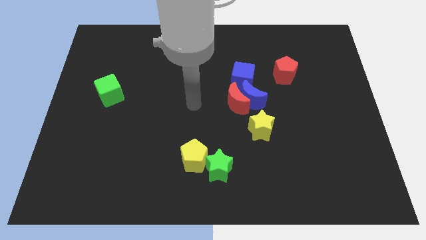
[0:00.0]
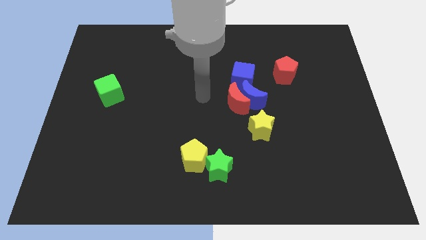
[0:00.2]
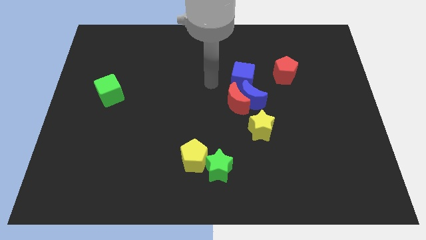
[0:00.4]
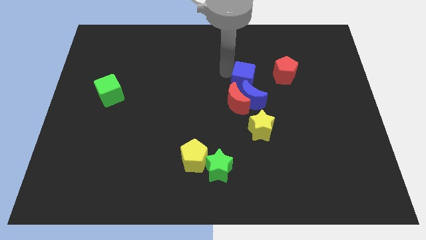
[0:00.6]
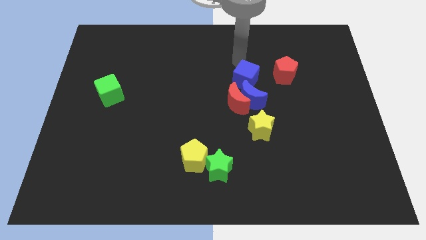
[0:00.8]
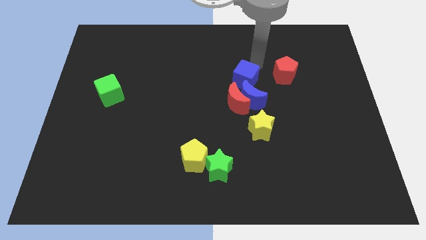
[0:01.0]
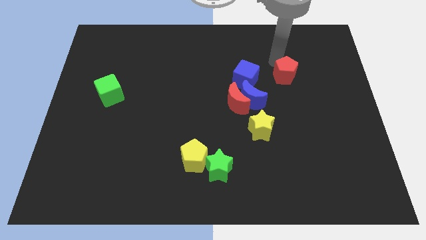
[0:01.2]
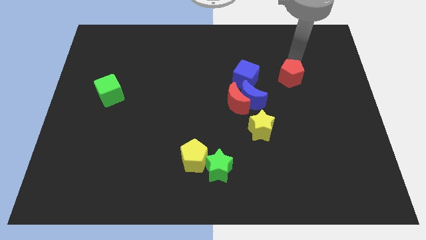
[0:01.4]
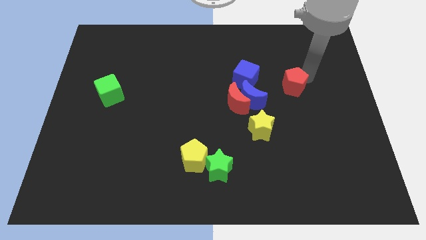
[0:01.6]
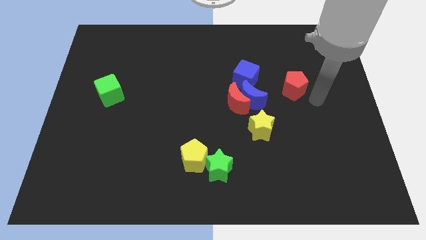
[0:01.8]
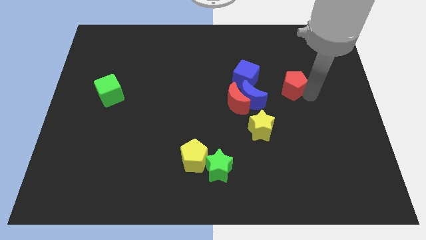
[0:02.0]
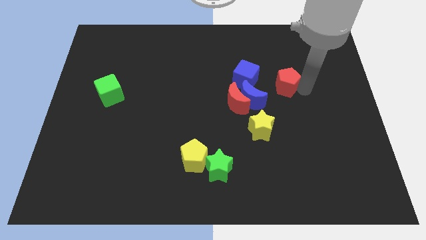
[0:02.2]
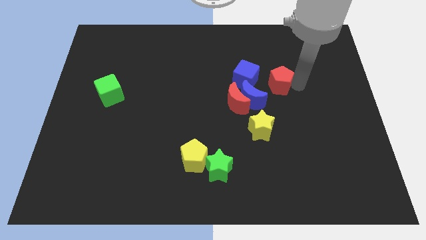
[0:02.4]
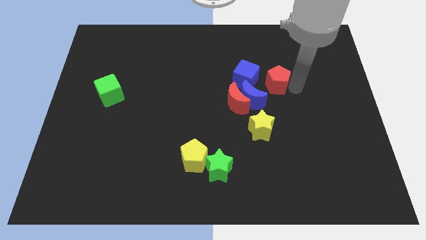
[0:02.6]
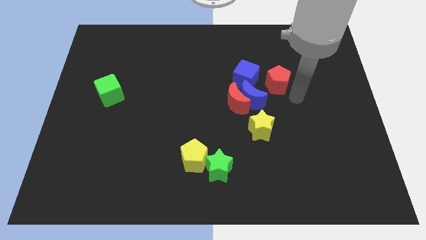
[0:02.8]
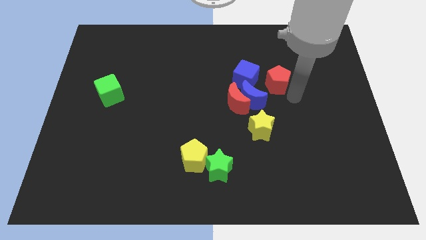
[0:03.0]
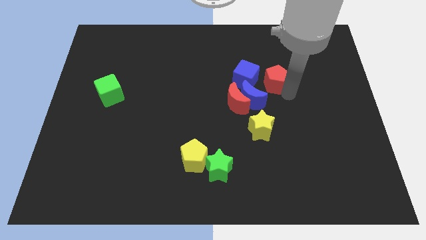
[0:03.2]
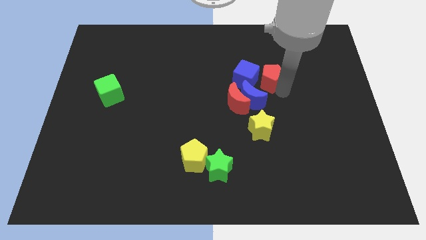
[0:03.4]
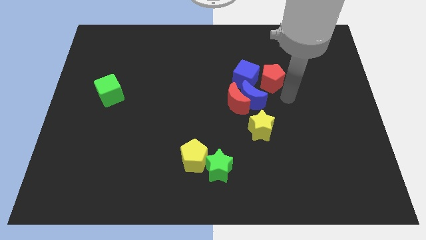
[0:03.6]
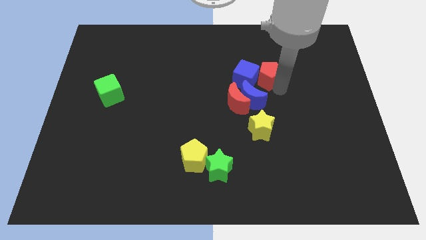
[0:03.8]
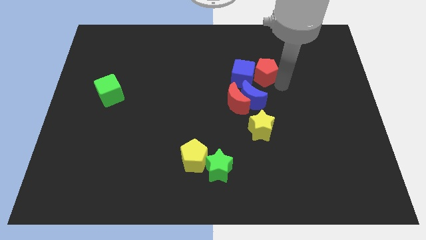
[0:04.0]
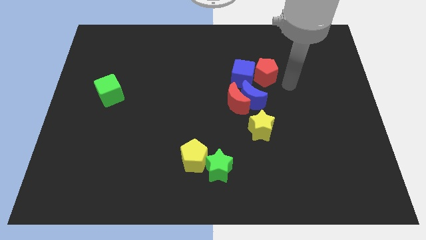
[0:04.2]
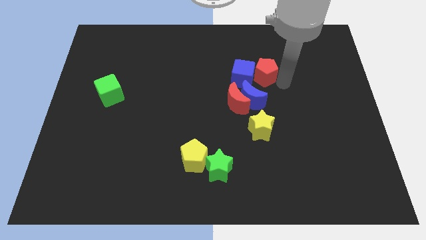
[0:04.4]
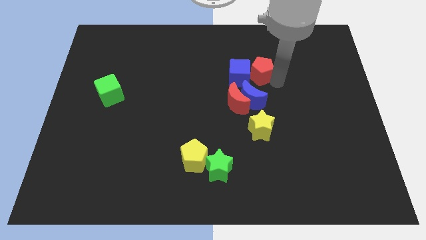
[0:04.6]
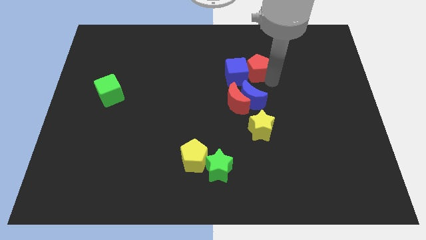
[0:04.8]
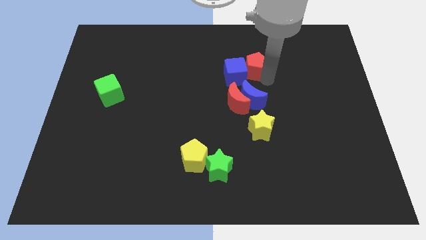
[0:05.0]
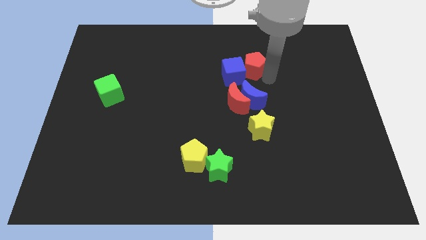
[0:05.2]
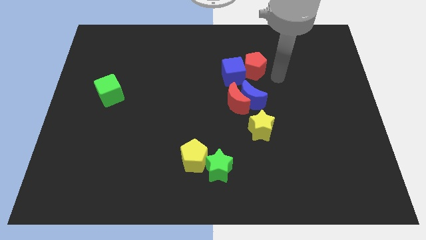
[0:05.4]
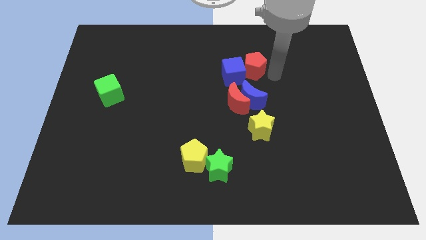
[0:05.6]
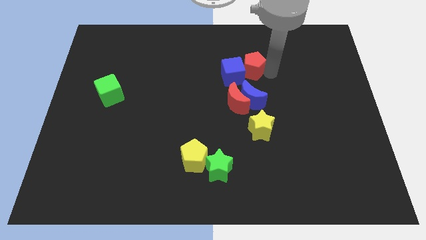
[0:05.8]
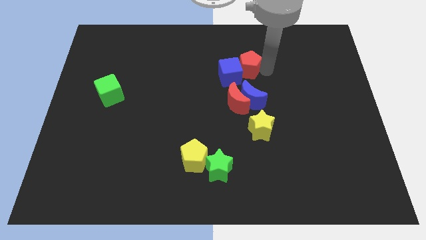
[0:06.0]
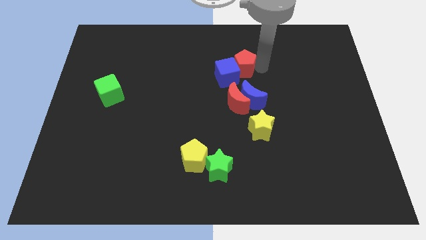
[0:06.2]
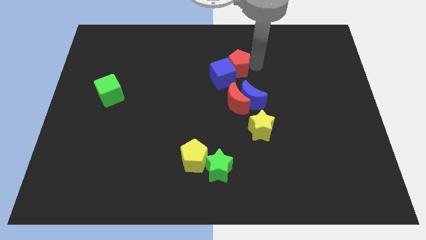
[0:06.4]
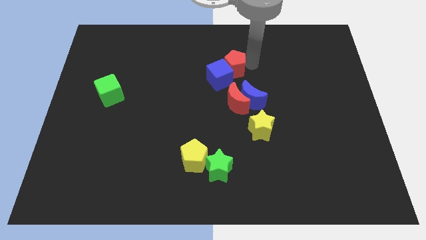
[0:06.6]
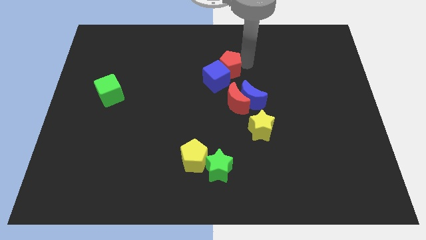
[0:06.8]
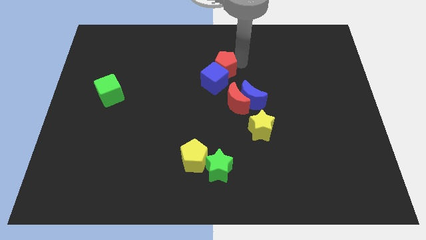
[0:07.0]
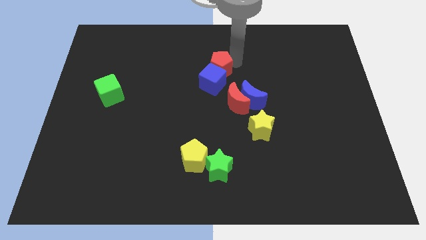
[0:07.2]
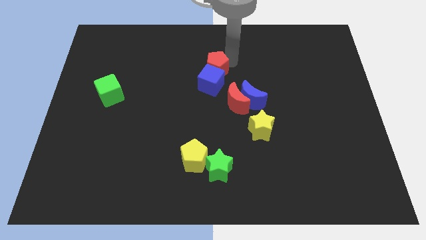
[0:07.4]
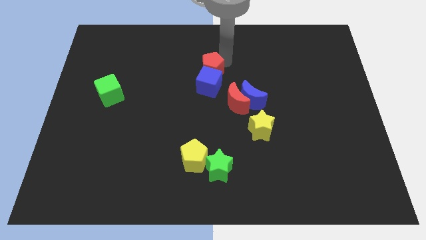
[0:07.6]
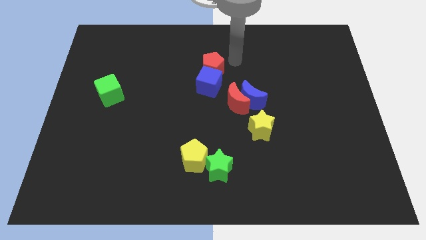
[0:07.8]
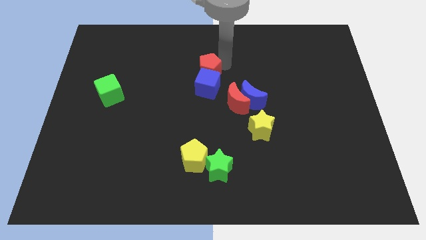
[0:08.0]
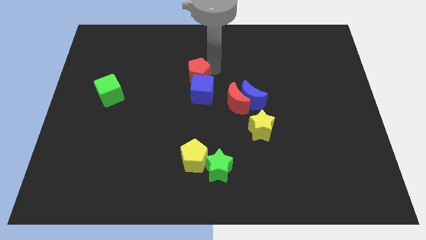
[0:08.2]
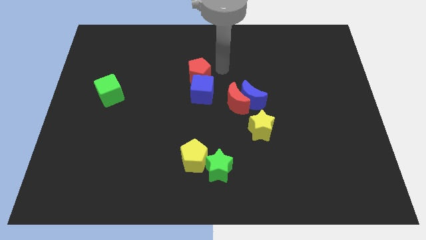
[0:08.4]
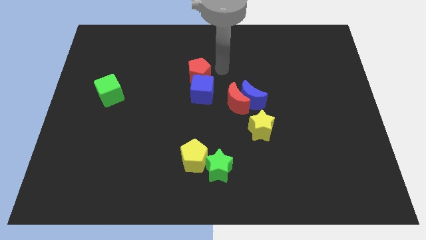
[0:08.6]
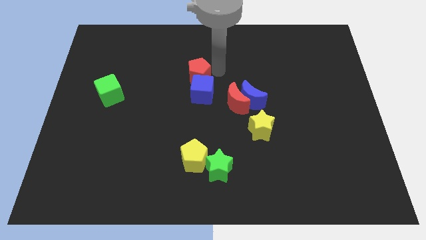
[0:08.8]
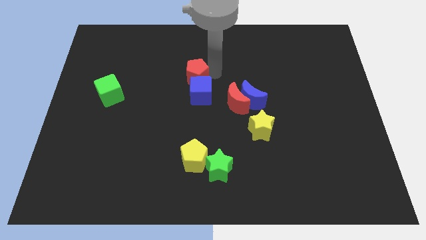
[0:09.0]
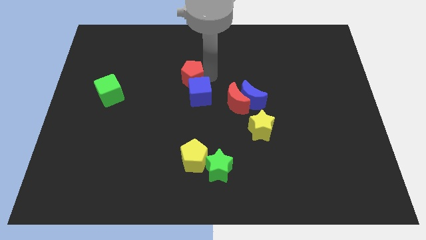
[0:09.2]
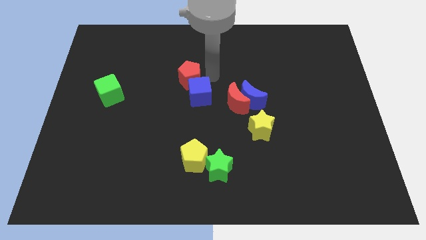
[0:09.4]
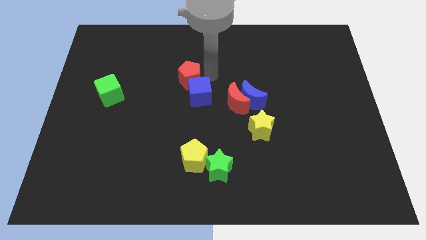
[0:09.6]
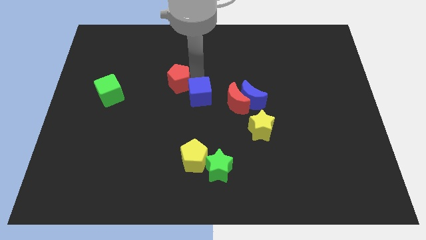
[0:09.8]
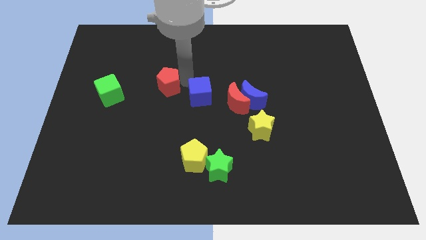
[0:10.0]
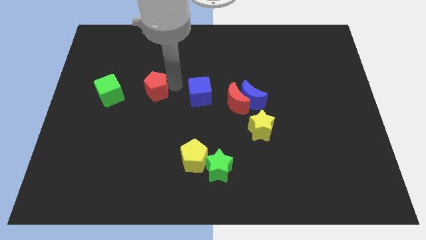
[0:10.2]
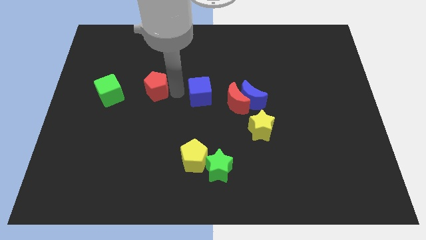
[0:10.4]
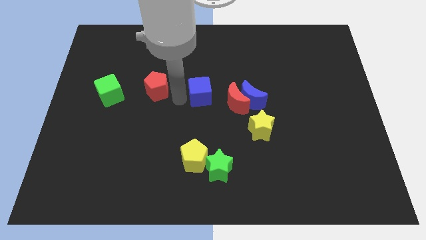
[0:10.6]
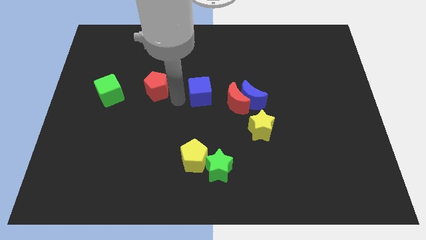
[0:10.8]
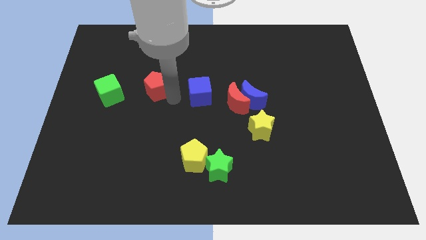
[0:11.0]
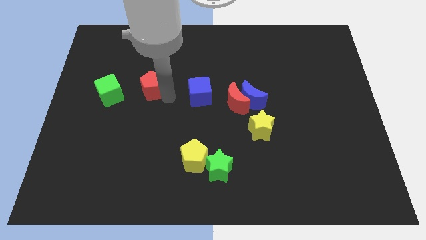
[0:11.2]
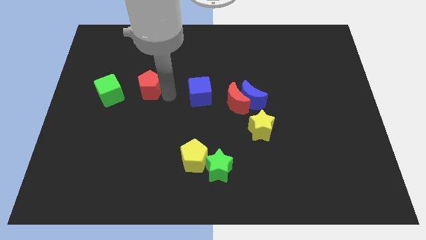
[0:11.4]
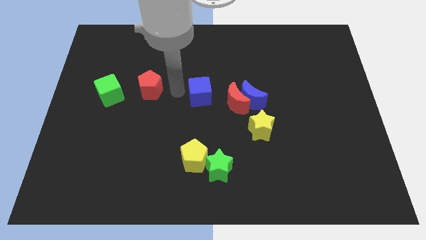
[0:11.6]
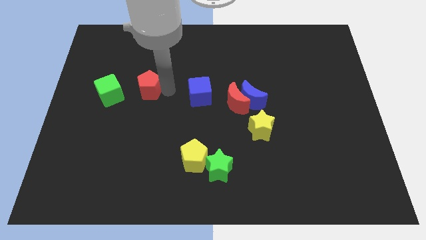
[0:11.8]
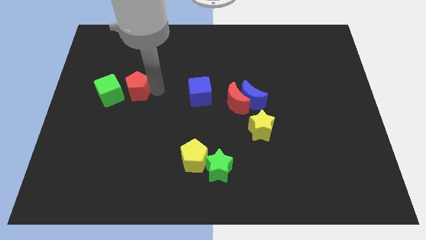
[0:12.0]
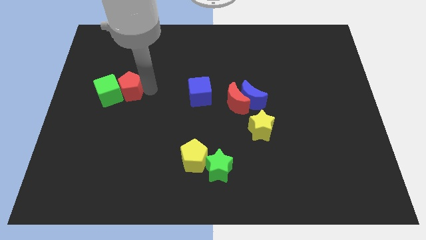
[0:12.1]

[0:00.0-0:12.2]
put the red pentagon close to the green cube
